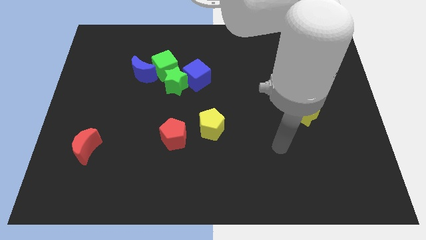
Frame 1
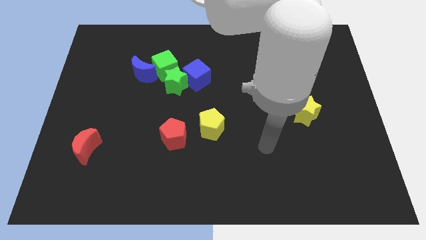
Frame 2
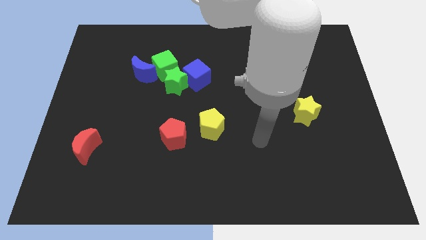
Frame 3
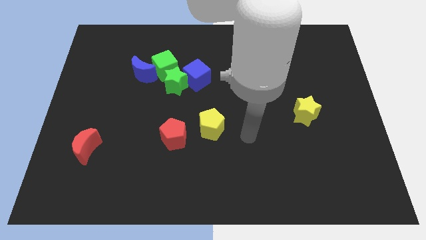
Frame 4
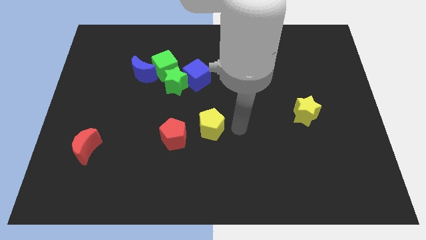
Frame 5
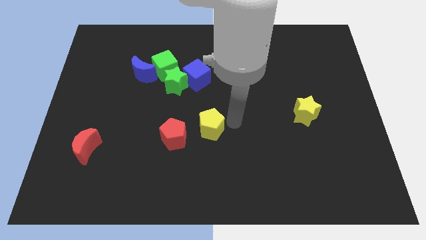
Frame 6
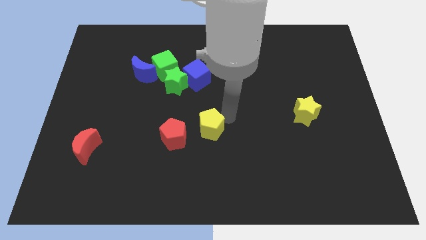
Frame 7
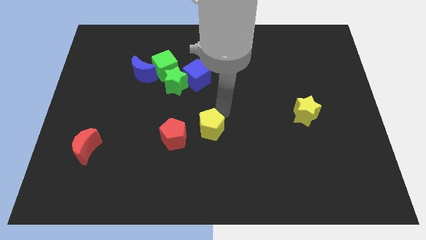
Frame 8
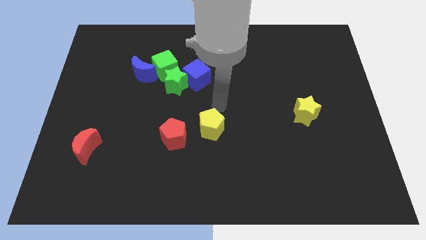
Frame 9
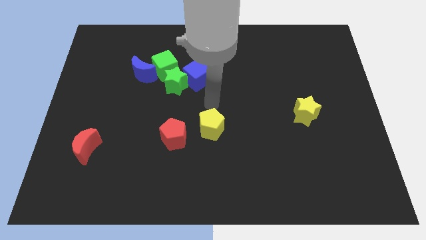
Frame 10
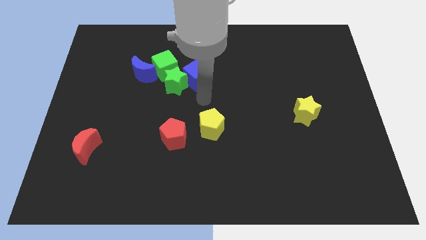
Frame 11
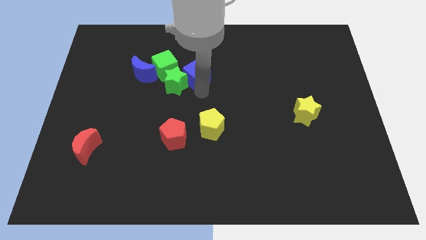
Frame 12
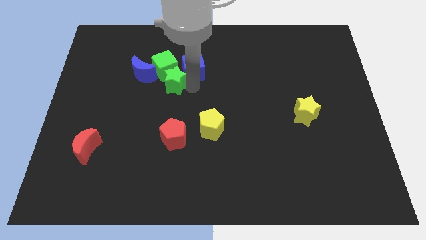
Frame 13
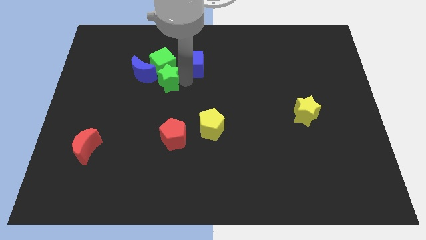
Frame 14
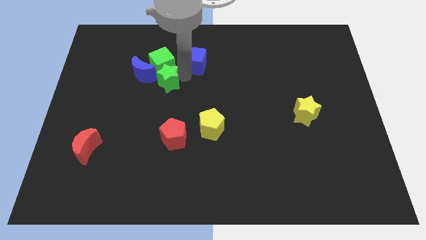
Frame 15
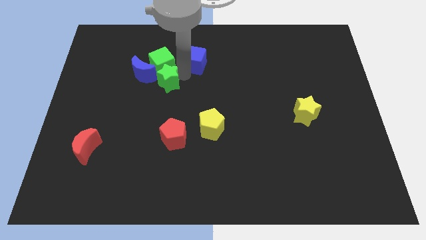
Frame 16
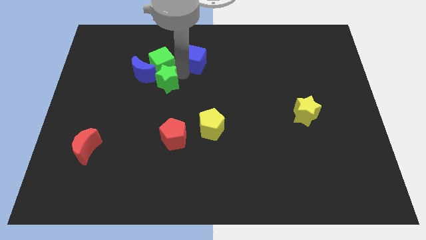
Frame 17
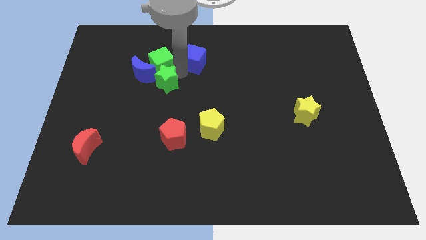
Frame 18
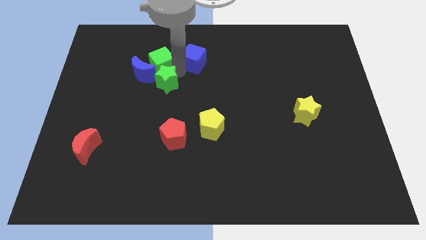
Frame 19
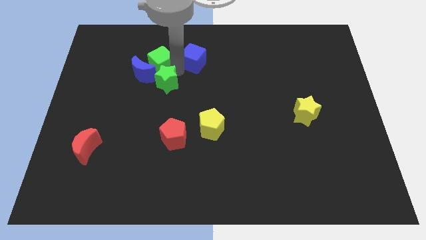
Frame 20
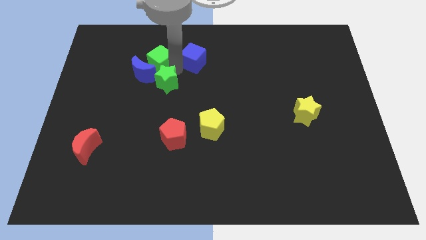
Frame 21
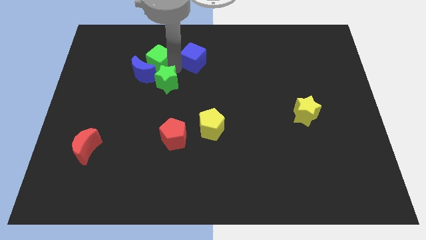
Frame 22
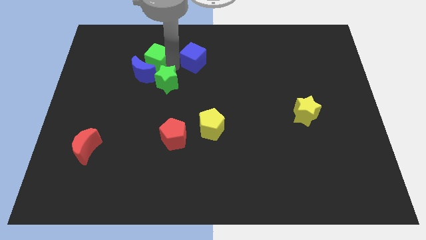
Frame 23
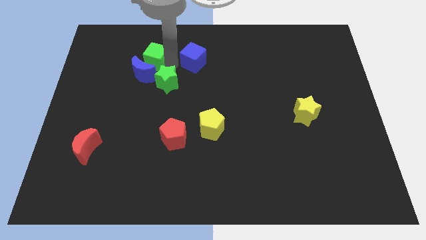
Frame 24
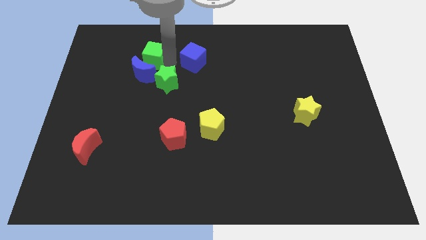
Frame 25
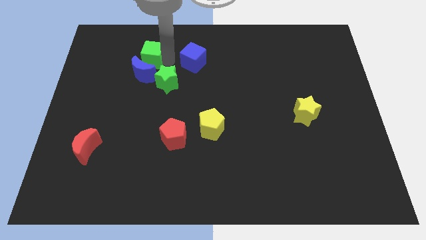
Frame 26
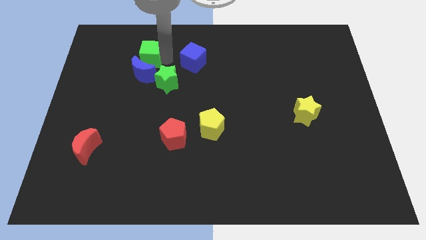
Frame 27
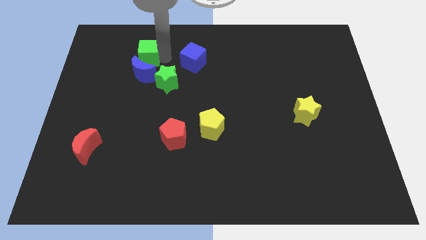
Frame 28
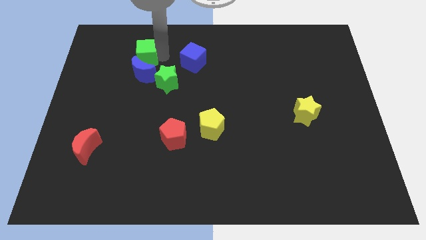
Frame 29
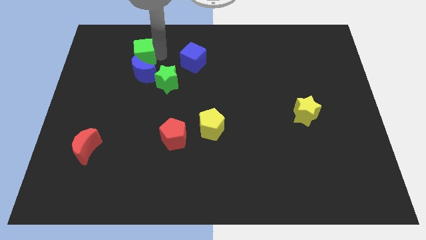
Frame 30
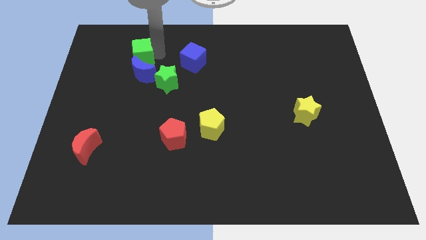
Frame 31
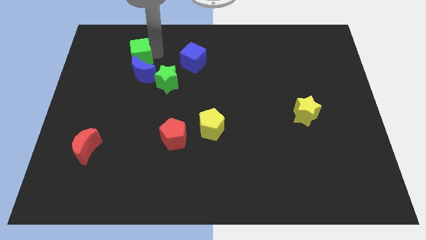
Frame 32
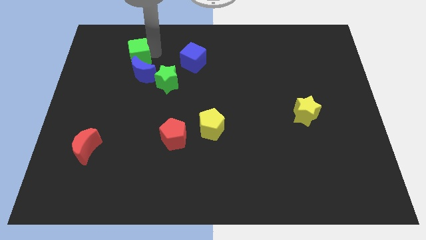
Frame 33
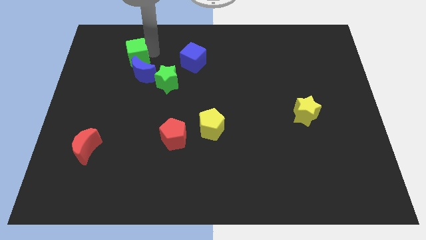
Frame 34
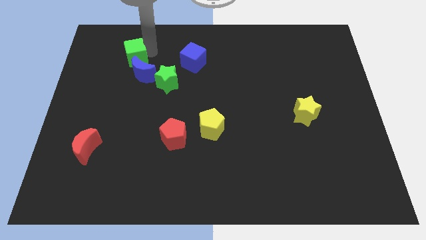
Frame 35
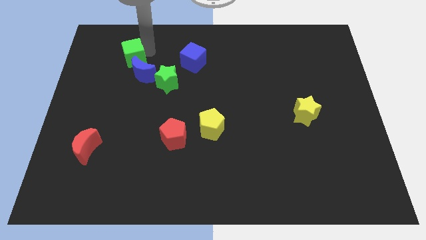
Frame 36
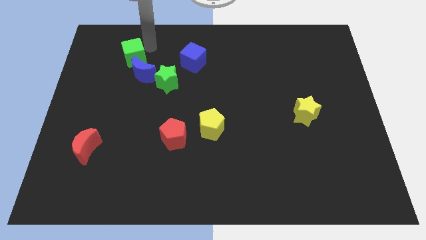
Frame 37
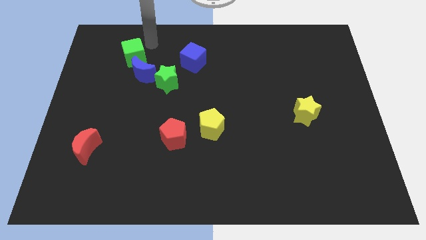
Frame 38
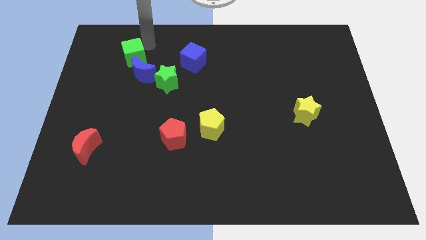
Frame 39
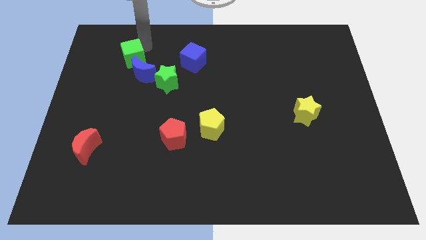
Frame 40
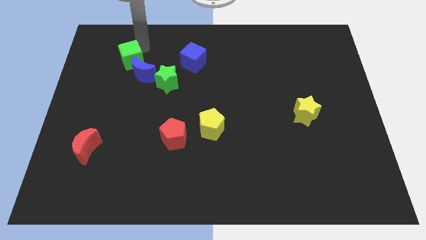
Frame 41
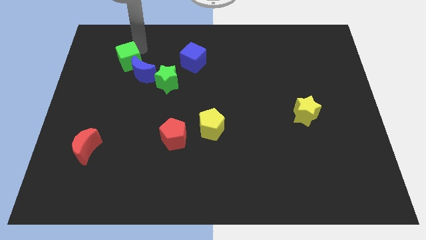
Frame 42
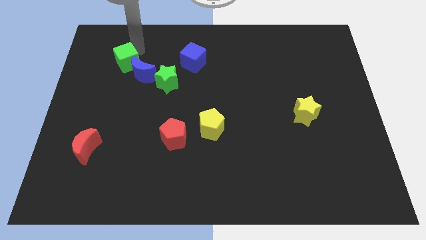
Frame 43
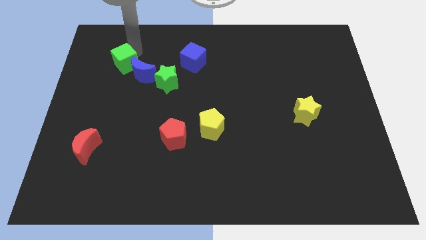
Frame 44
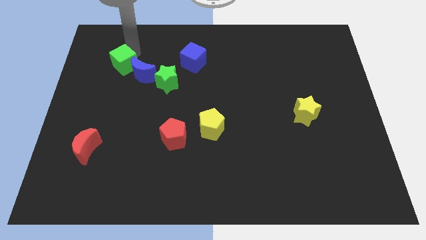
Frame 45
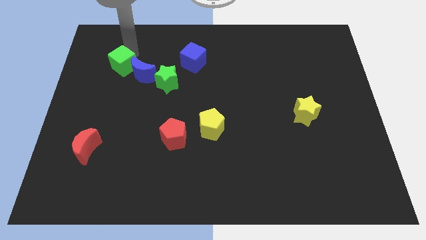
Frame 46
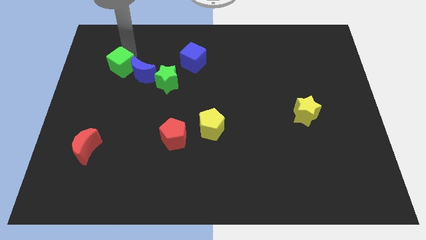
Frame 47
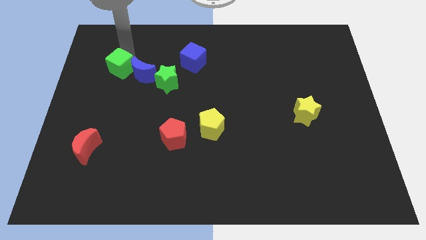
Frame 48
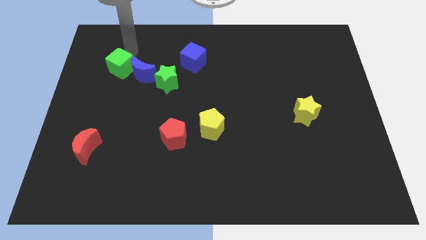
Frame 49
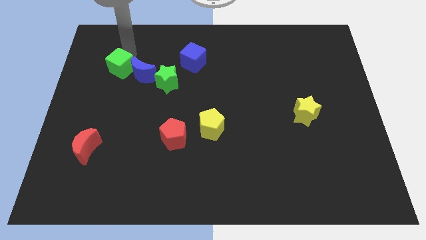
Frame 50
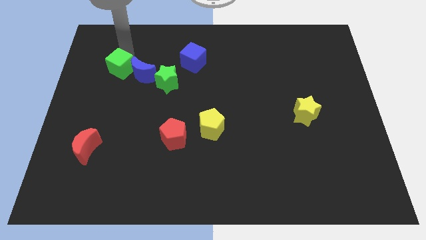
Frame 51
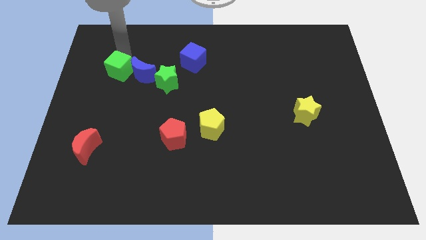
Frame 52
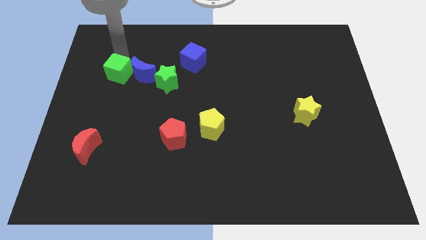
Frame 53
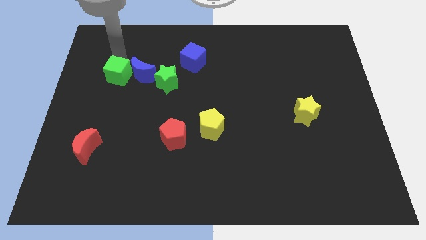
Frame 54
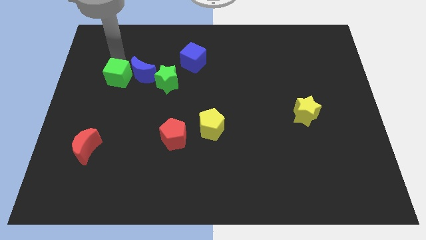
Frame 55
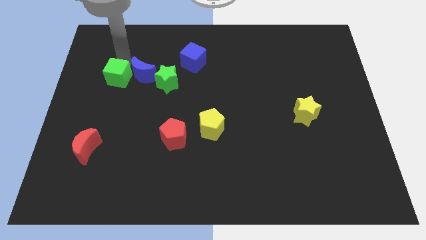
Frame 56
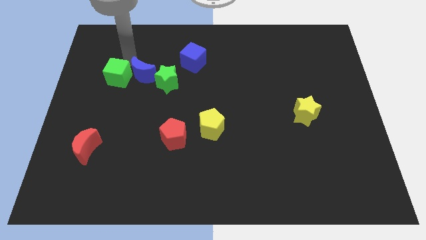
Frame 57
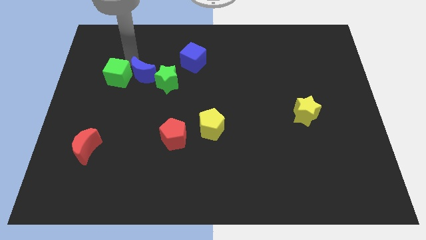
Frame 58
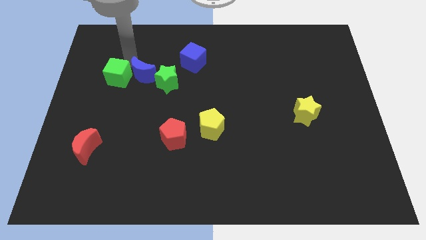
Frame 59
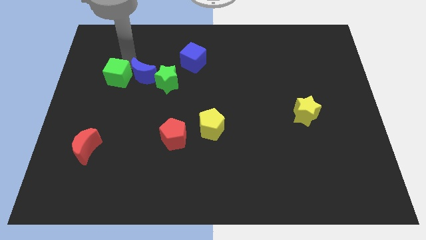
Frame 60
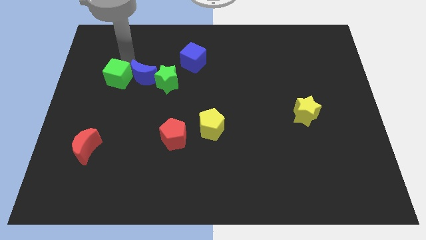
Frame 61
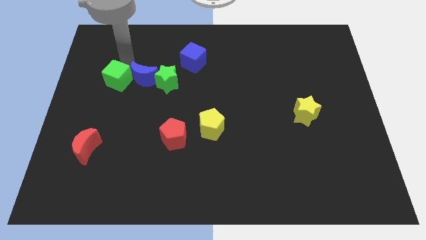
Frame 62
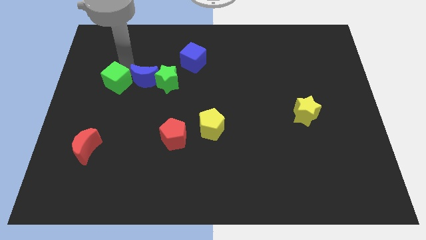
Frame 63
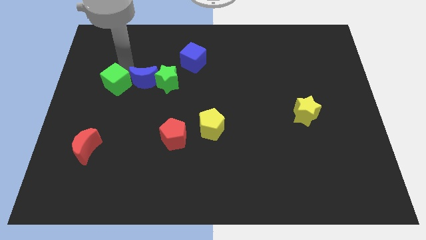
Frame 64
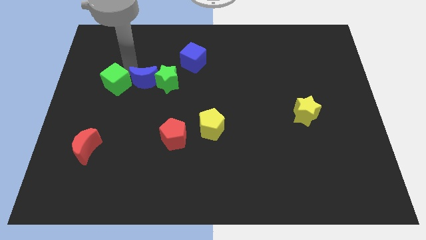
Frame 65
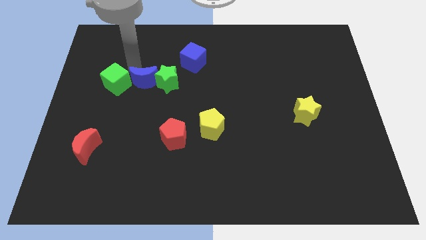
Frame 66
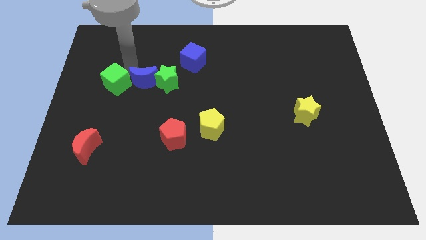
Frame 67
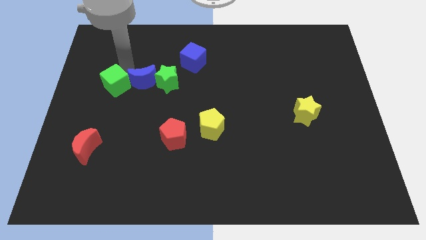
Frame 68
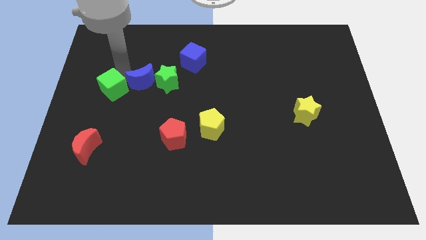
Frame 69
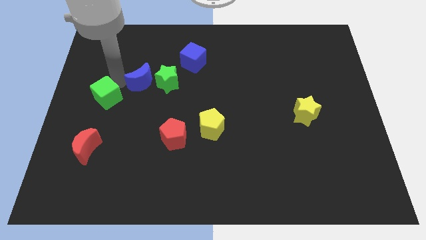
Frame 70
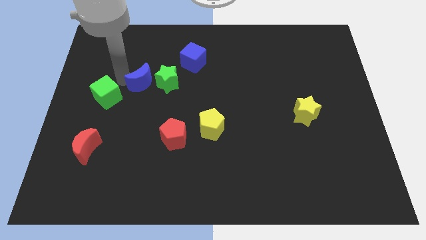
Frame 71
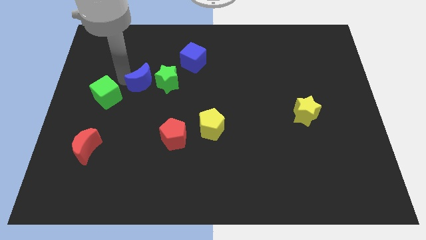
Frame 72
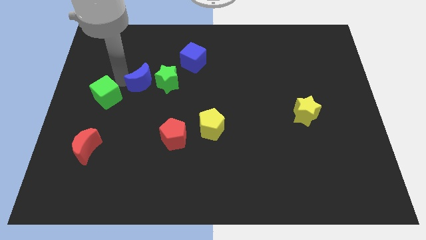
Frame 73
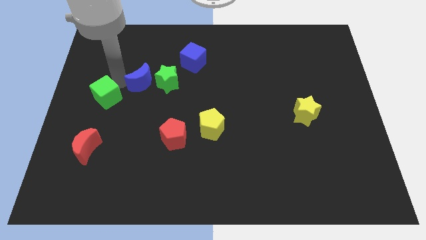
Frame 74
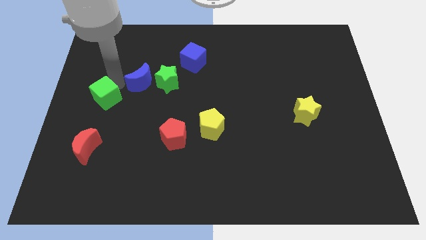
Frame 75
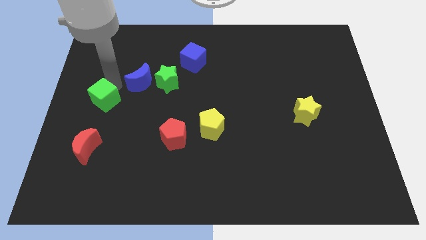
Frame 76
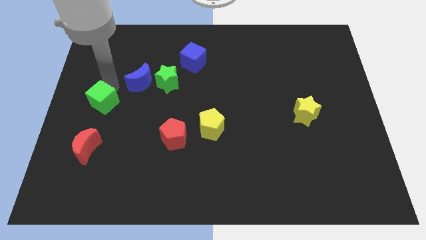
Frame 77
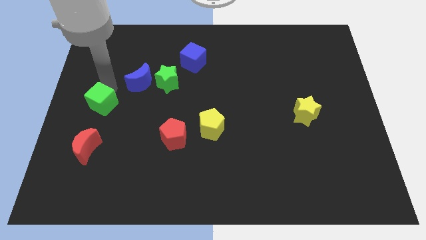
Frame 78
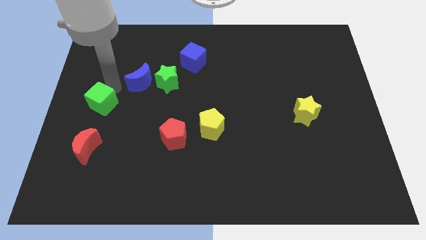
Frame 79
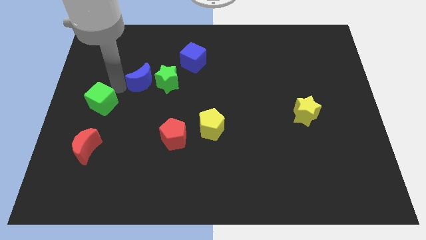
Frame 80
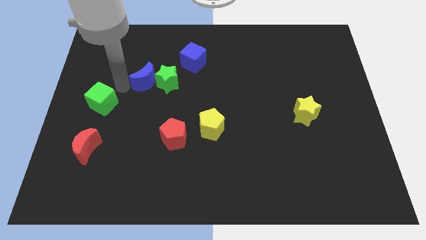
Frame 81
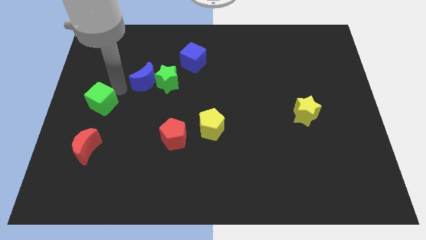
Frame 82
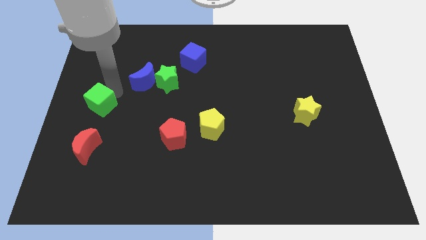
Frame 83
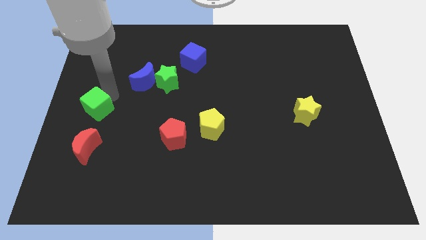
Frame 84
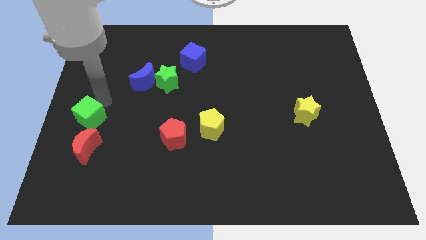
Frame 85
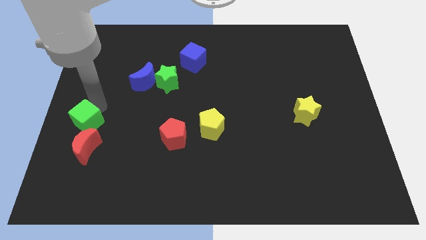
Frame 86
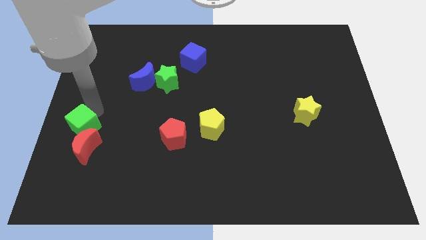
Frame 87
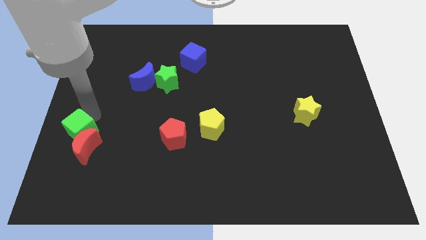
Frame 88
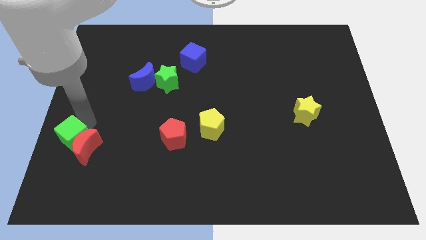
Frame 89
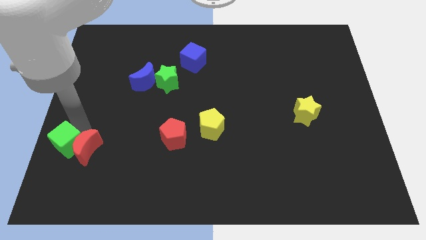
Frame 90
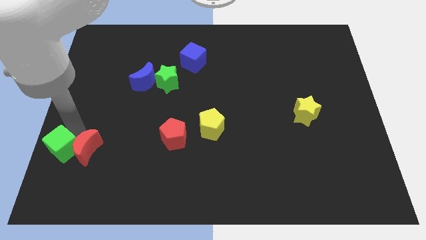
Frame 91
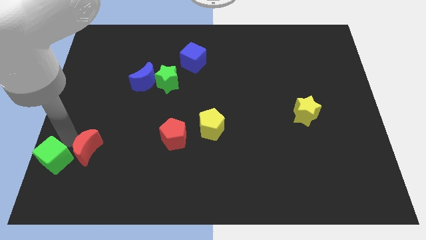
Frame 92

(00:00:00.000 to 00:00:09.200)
put the green cube to the lower left corner
